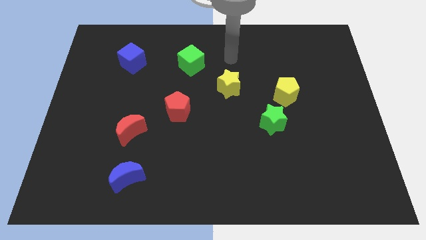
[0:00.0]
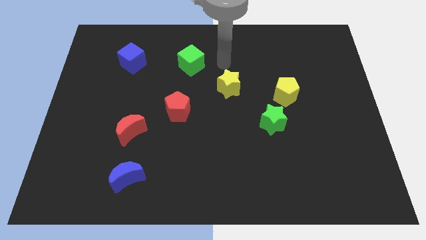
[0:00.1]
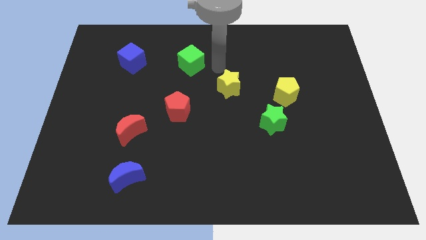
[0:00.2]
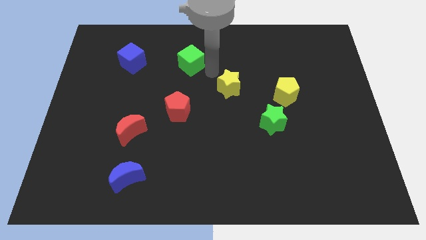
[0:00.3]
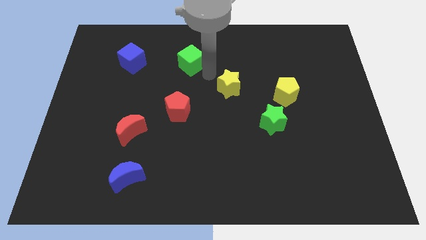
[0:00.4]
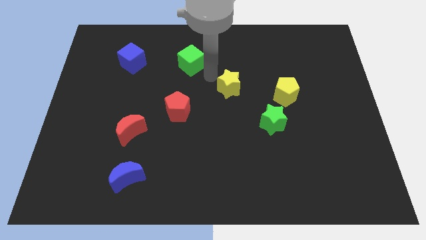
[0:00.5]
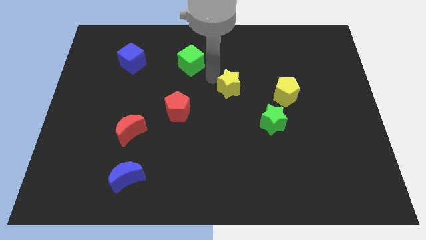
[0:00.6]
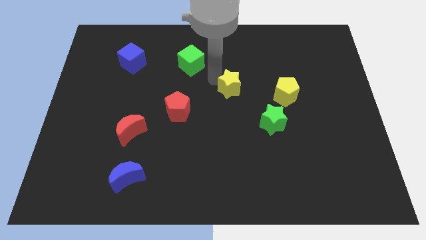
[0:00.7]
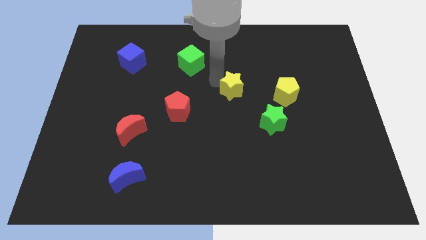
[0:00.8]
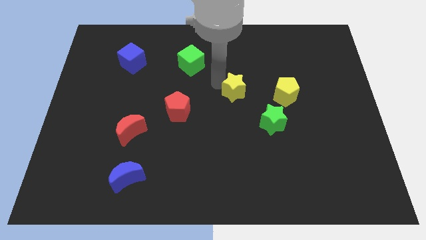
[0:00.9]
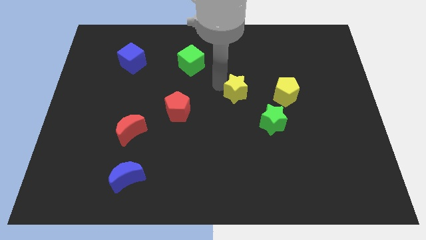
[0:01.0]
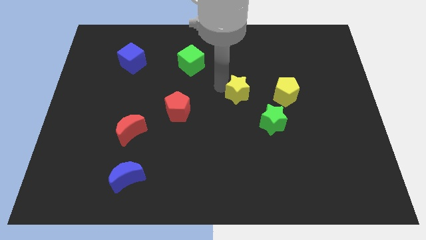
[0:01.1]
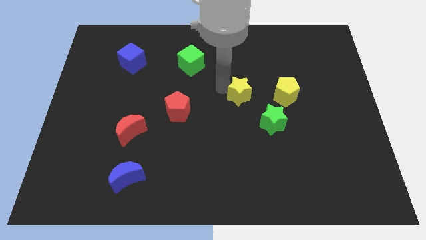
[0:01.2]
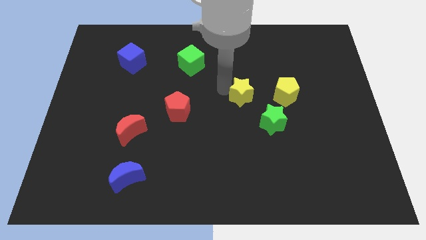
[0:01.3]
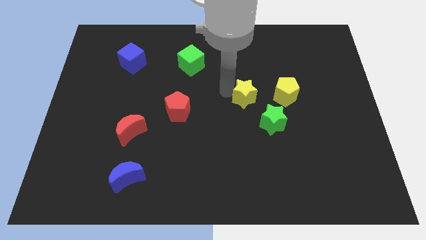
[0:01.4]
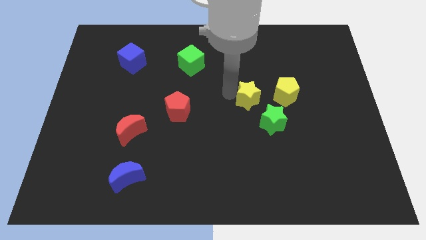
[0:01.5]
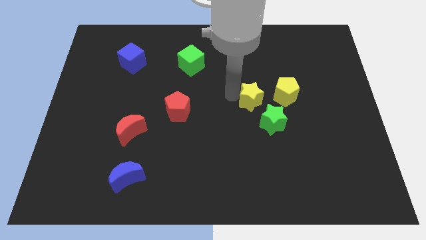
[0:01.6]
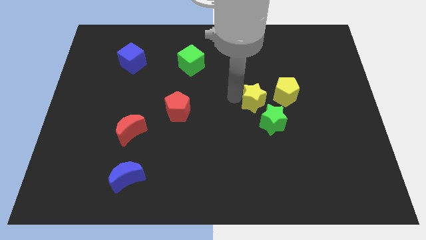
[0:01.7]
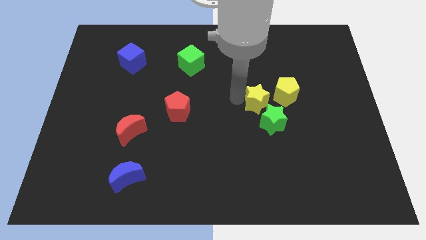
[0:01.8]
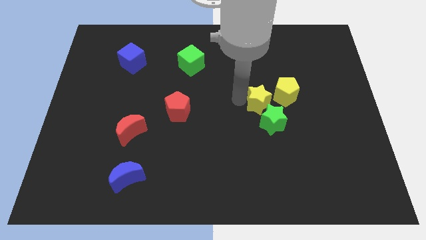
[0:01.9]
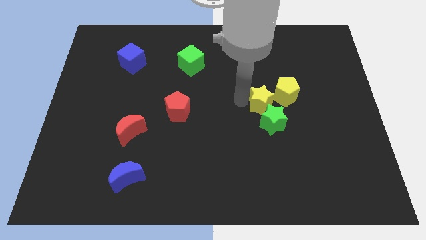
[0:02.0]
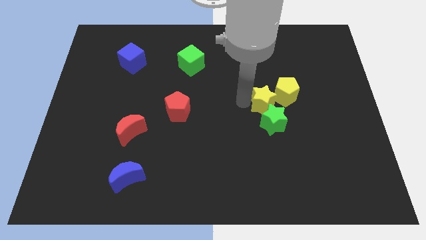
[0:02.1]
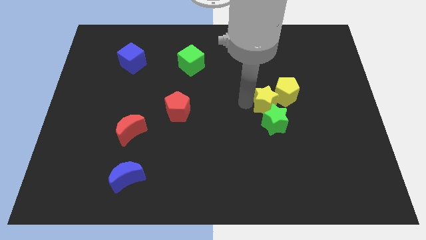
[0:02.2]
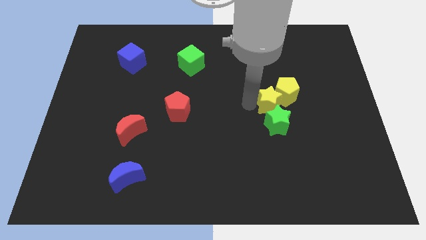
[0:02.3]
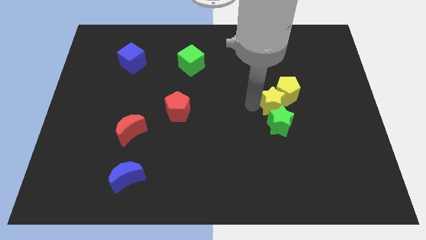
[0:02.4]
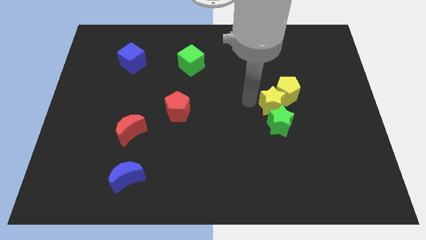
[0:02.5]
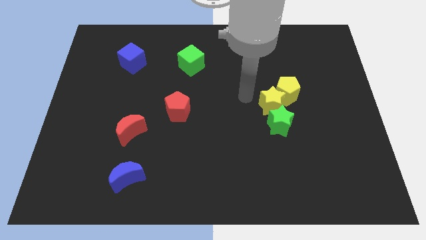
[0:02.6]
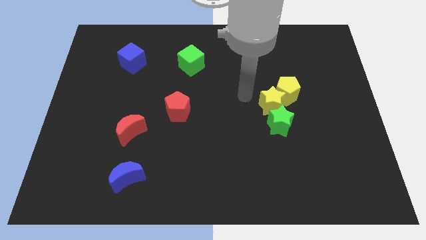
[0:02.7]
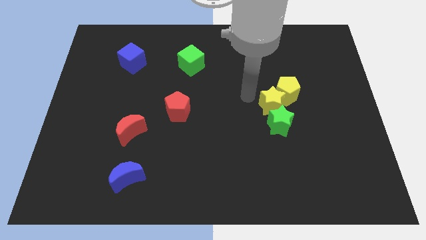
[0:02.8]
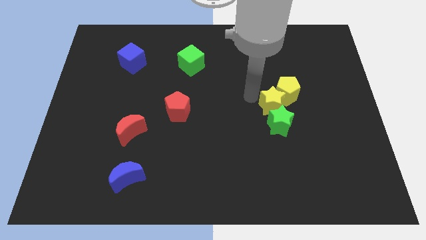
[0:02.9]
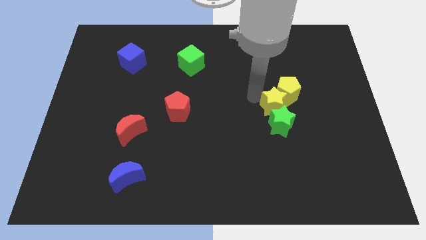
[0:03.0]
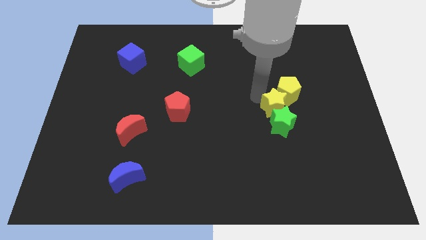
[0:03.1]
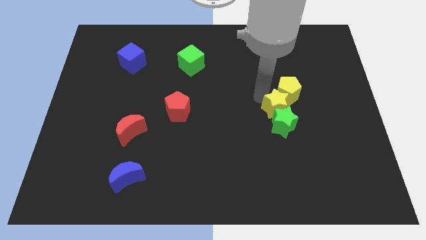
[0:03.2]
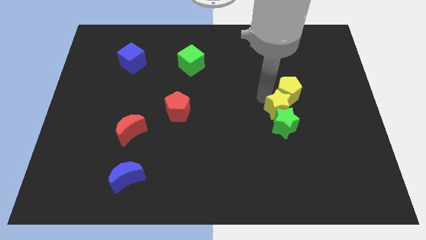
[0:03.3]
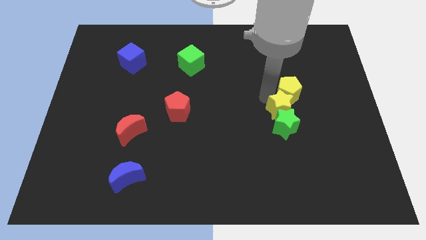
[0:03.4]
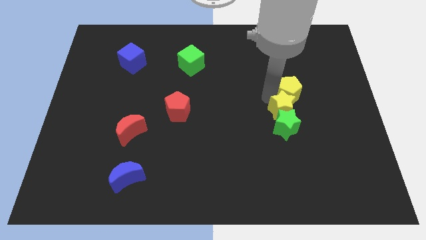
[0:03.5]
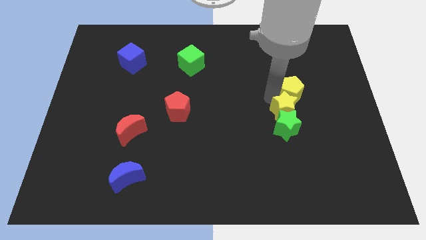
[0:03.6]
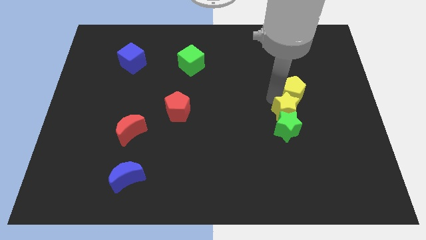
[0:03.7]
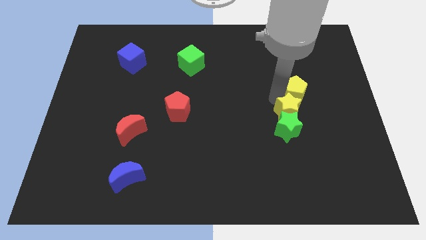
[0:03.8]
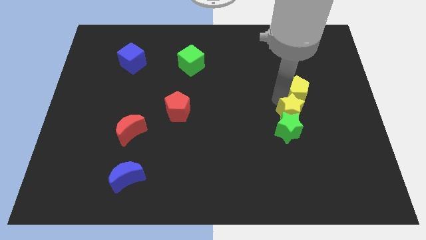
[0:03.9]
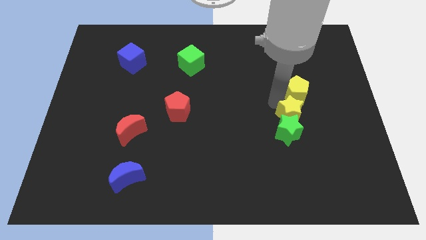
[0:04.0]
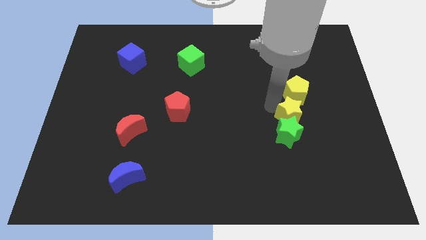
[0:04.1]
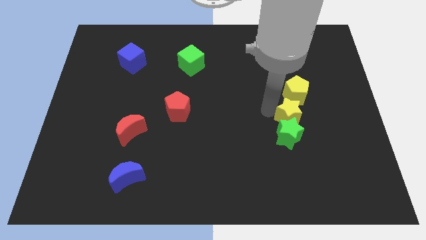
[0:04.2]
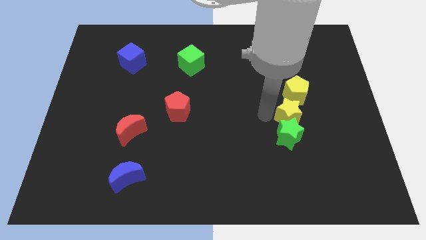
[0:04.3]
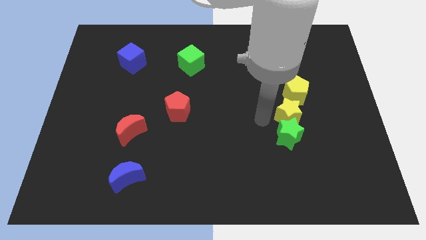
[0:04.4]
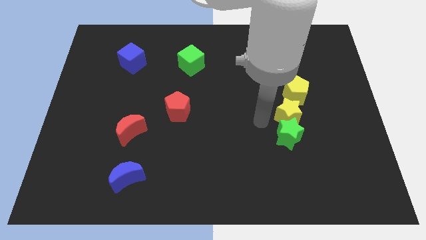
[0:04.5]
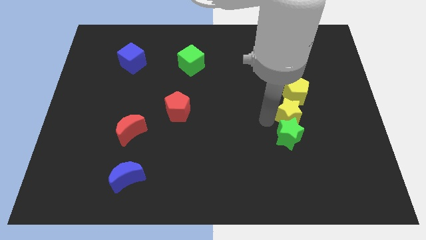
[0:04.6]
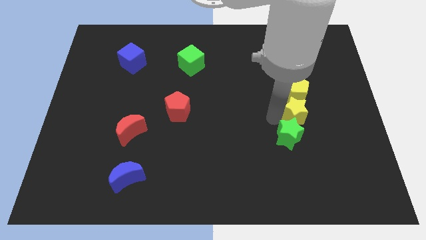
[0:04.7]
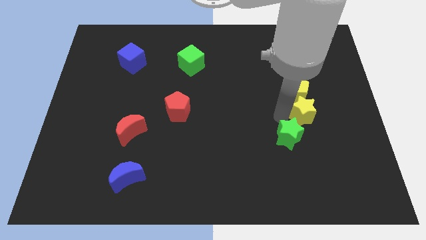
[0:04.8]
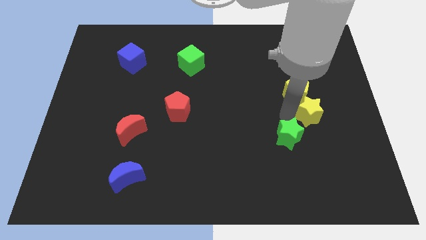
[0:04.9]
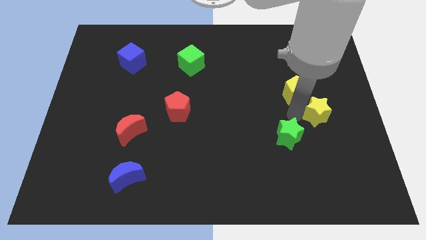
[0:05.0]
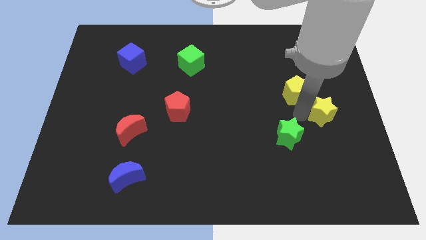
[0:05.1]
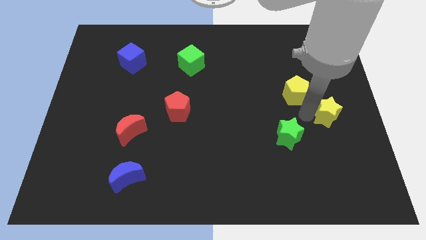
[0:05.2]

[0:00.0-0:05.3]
put the yellow star to the right side

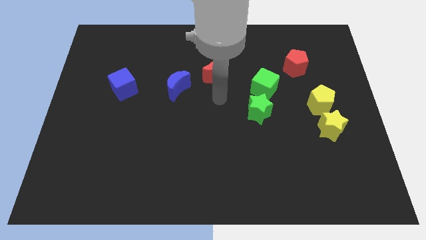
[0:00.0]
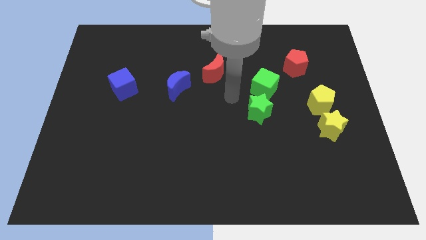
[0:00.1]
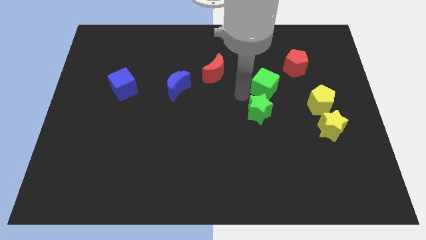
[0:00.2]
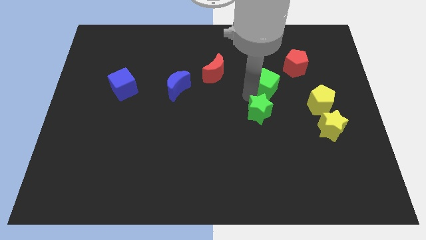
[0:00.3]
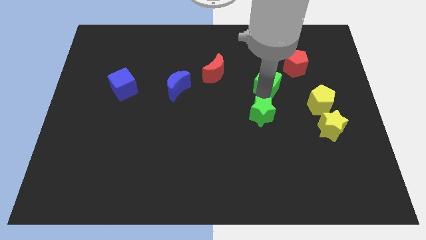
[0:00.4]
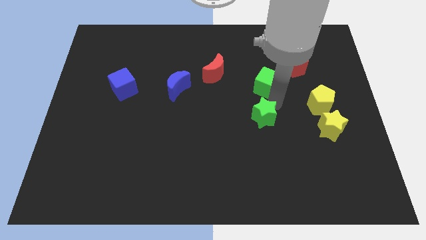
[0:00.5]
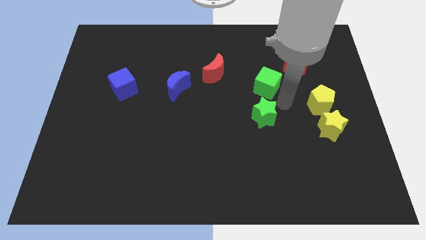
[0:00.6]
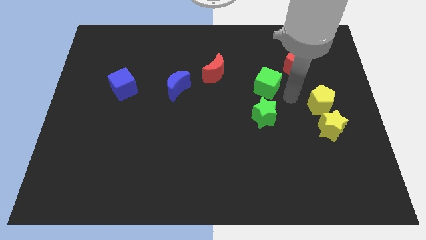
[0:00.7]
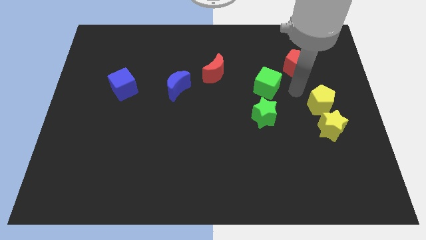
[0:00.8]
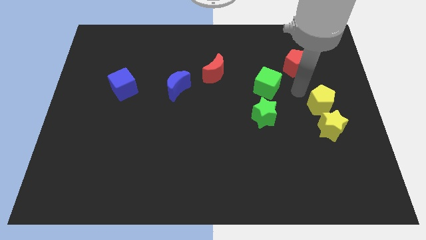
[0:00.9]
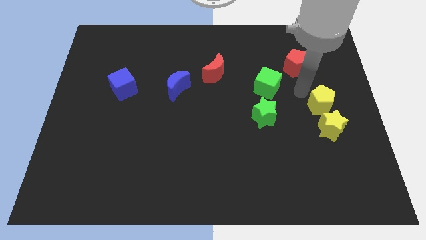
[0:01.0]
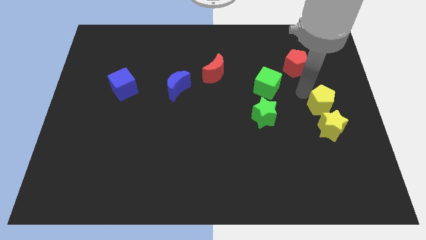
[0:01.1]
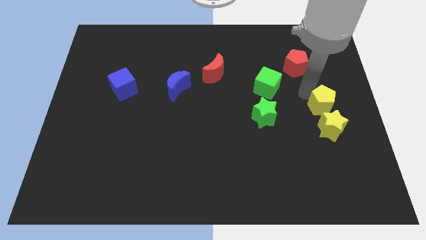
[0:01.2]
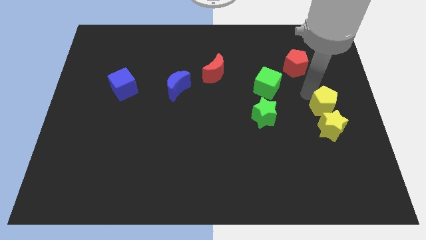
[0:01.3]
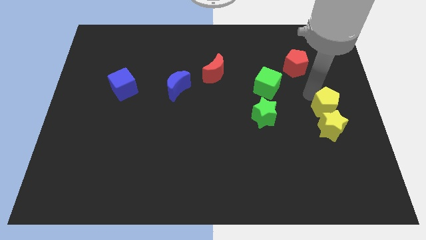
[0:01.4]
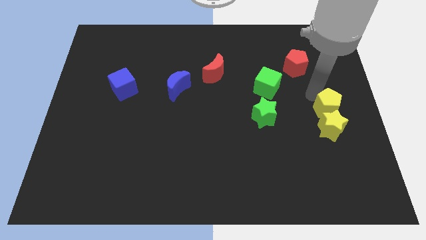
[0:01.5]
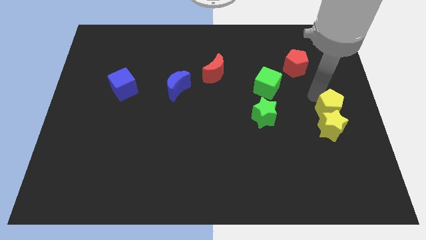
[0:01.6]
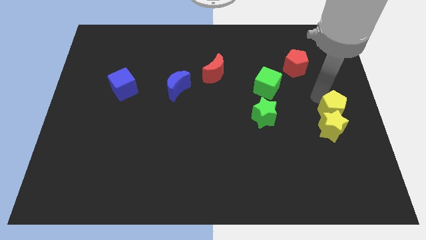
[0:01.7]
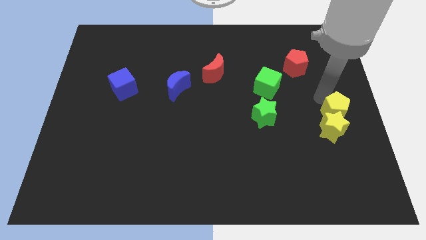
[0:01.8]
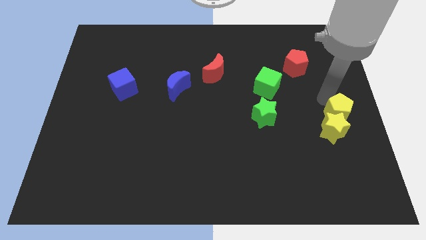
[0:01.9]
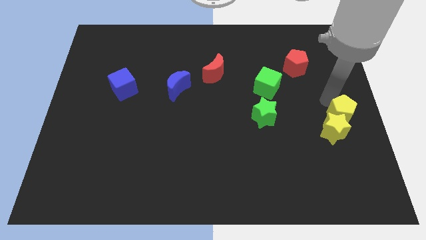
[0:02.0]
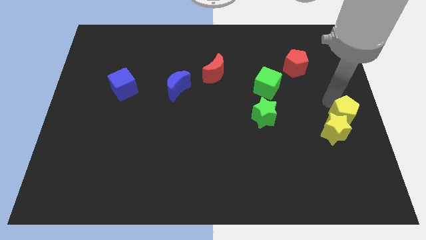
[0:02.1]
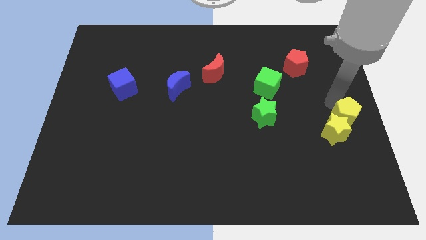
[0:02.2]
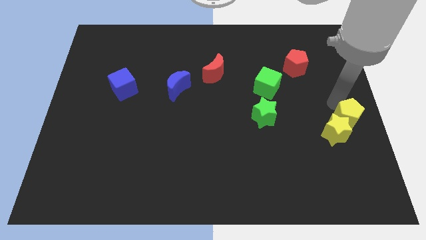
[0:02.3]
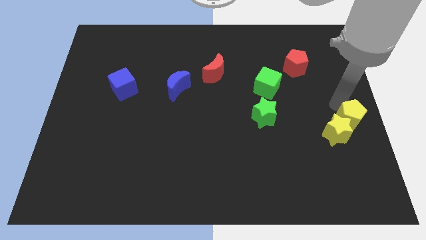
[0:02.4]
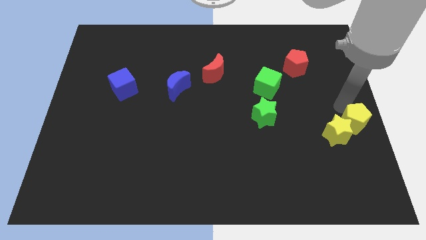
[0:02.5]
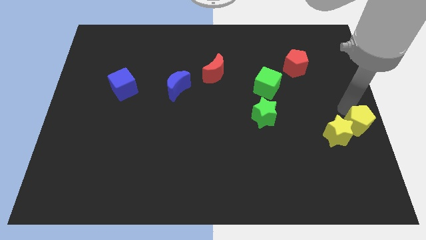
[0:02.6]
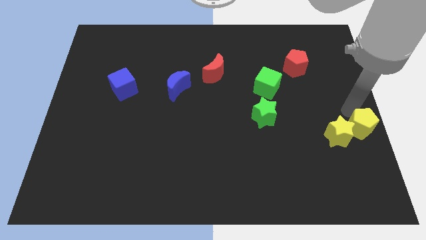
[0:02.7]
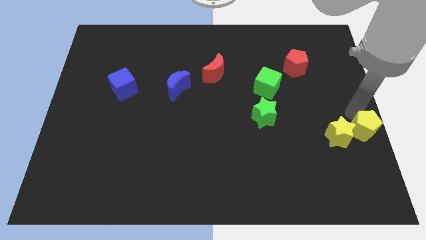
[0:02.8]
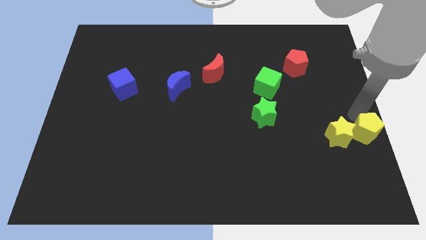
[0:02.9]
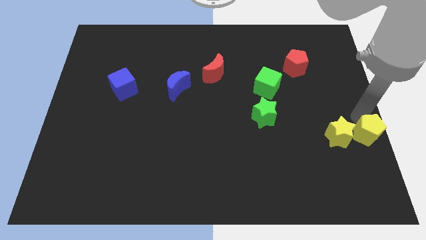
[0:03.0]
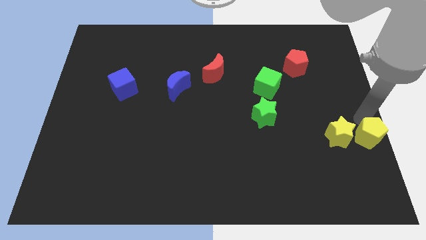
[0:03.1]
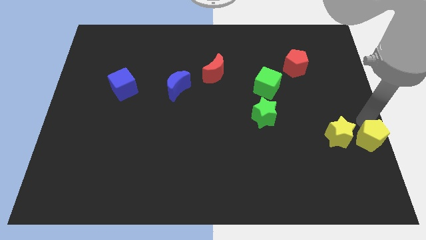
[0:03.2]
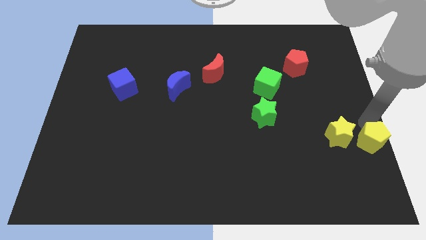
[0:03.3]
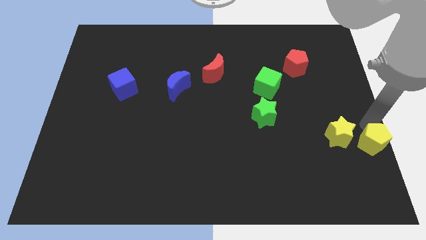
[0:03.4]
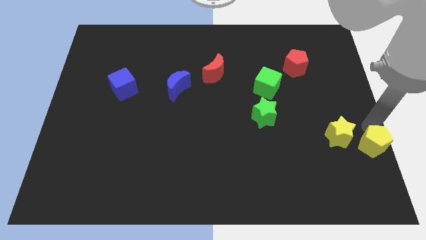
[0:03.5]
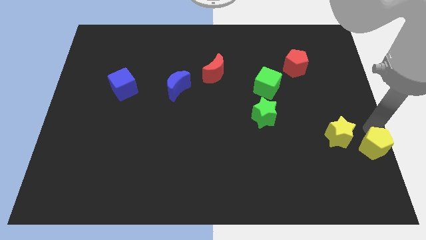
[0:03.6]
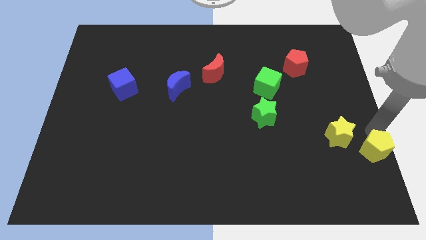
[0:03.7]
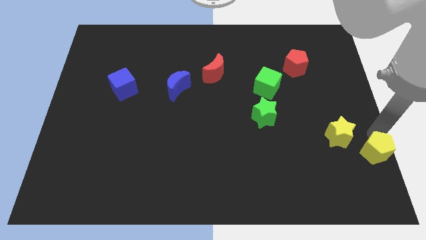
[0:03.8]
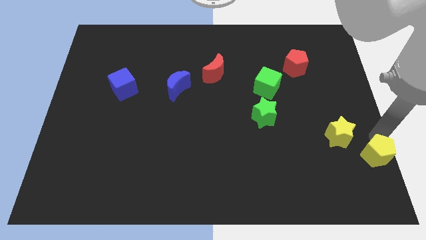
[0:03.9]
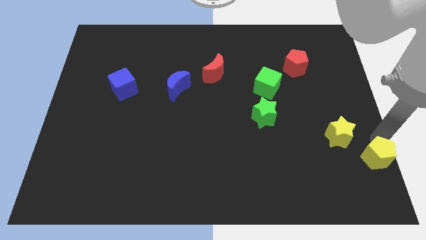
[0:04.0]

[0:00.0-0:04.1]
move the yellow pentagon to the lower right corner
